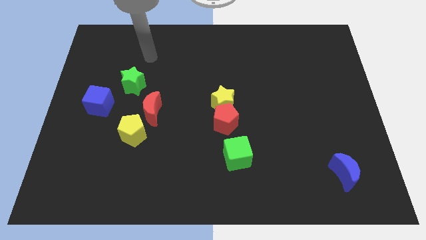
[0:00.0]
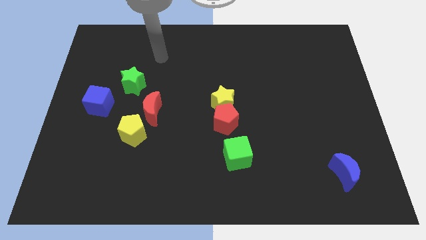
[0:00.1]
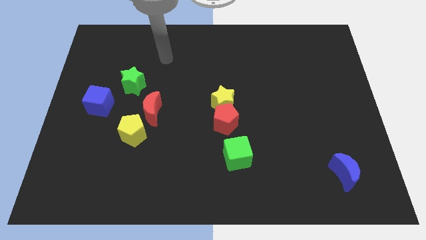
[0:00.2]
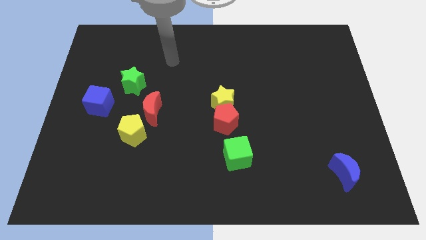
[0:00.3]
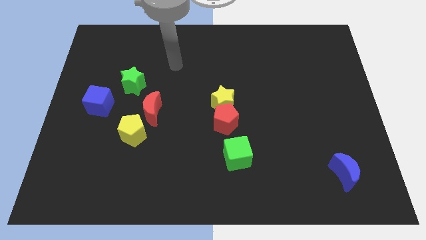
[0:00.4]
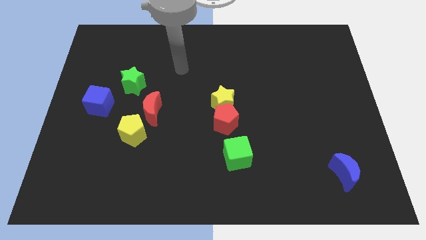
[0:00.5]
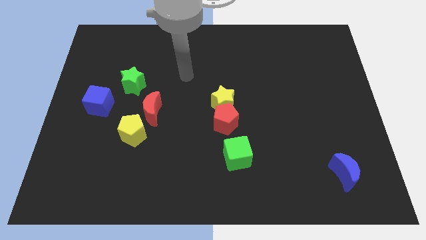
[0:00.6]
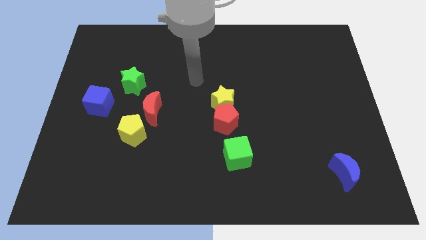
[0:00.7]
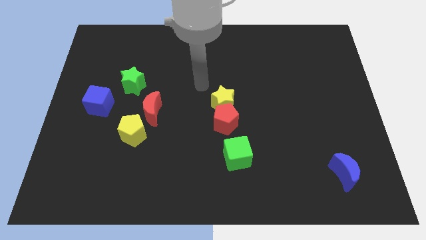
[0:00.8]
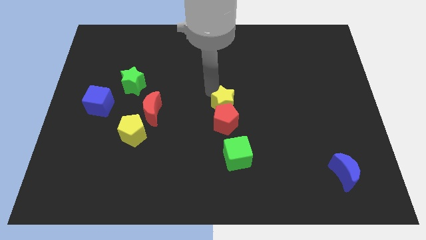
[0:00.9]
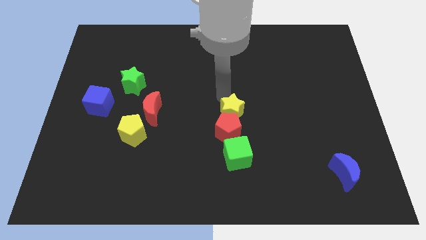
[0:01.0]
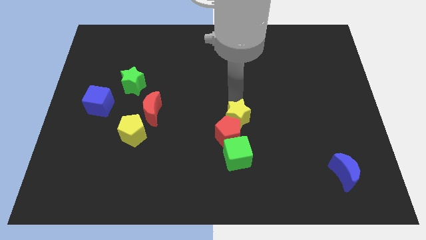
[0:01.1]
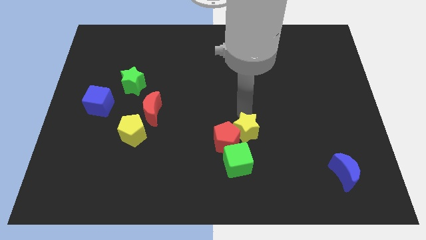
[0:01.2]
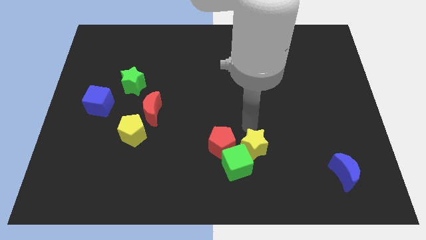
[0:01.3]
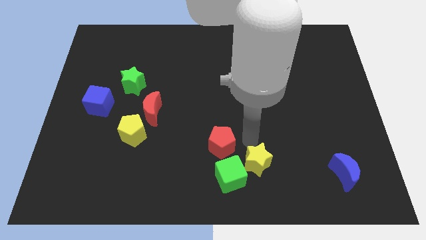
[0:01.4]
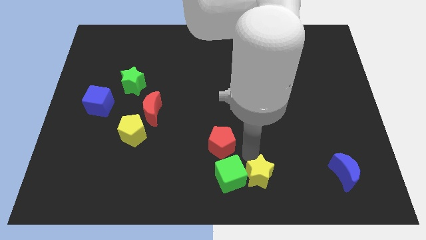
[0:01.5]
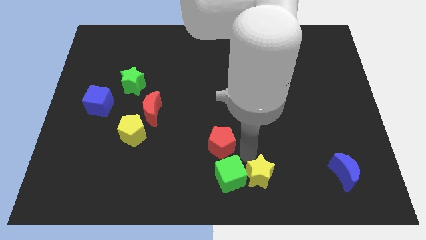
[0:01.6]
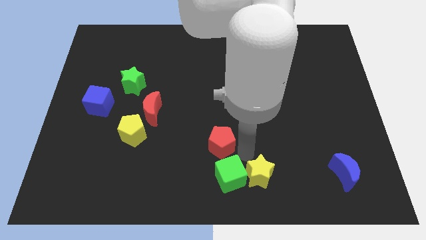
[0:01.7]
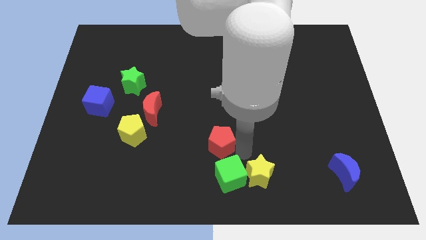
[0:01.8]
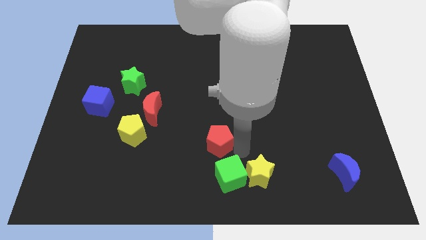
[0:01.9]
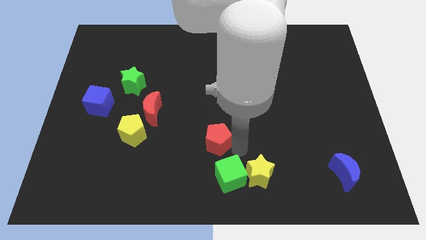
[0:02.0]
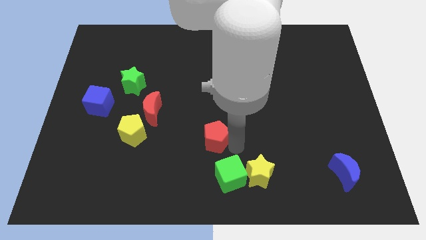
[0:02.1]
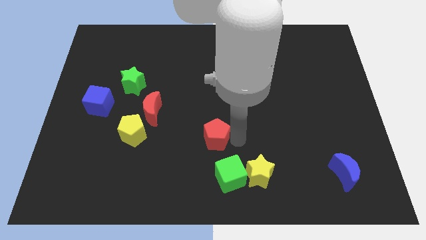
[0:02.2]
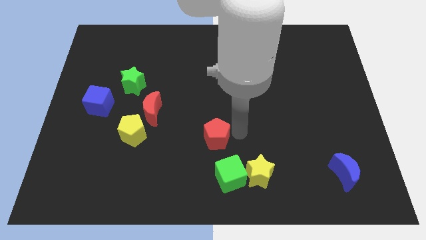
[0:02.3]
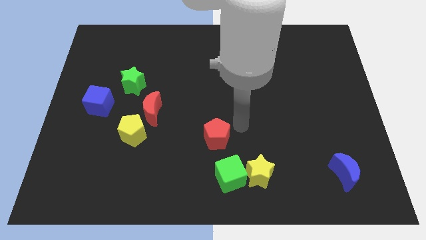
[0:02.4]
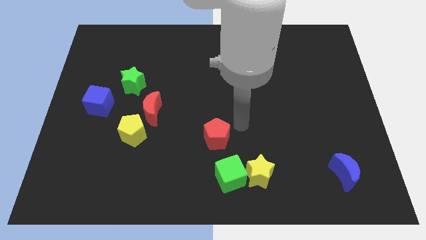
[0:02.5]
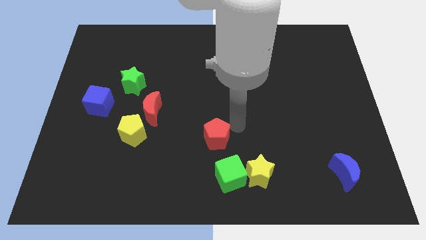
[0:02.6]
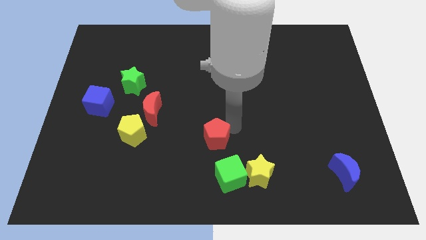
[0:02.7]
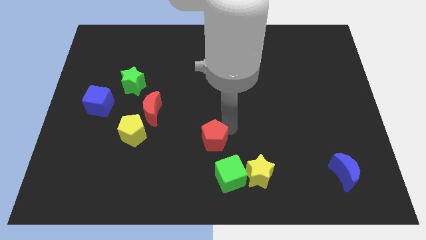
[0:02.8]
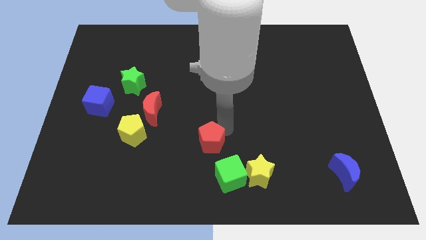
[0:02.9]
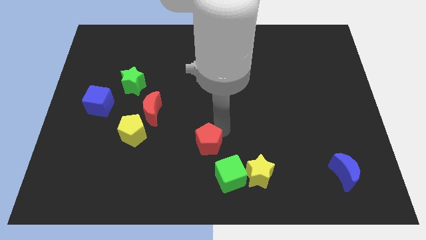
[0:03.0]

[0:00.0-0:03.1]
slightly push the red pentagon downwards and to the left diagonally

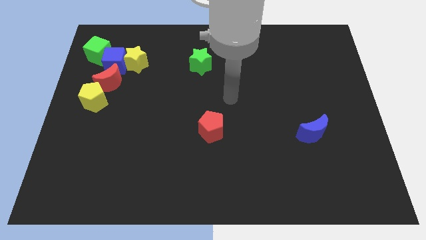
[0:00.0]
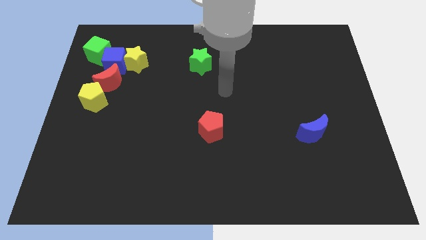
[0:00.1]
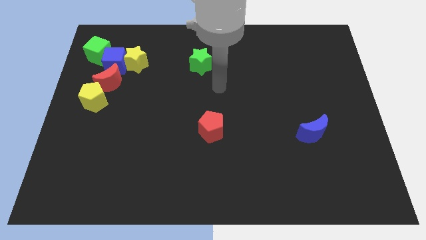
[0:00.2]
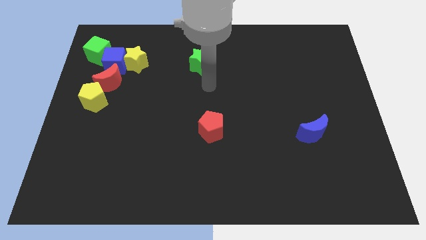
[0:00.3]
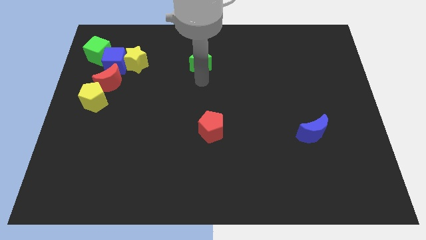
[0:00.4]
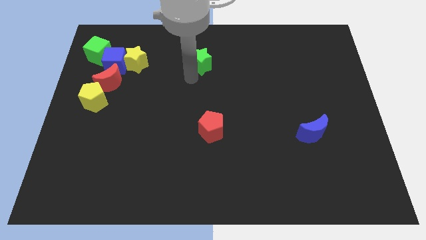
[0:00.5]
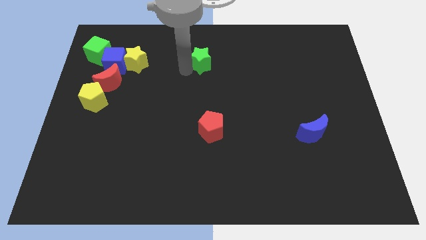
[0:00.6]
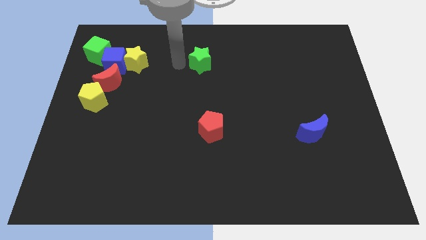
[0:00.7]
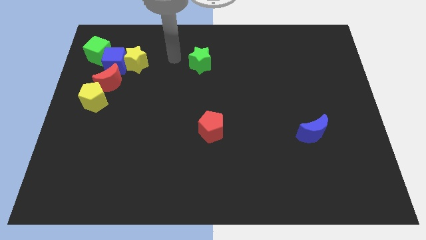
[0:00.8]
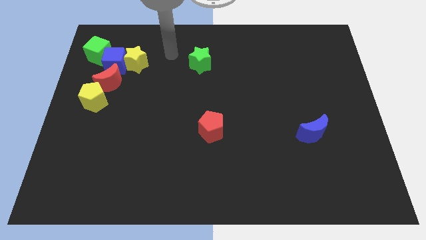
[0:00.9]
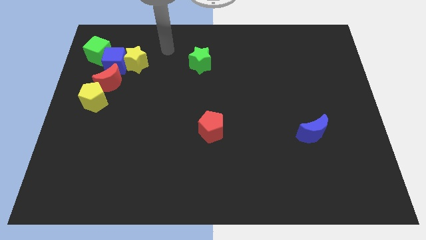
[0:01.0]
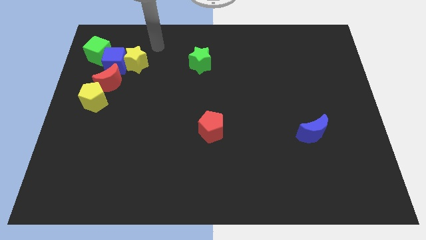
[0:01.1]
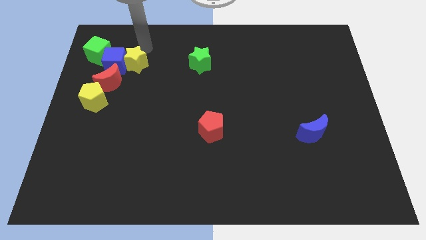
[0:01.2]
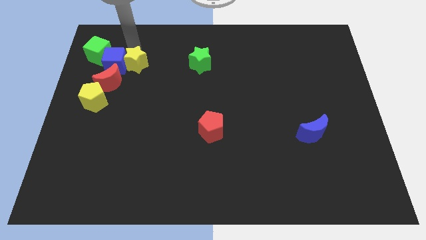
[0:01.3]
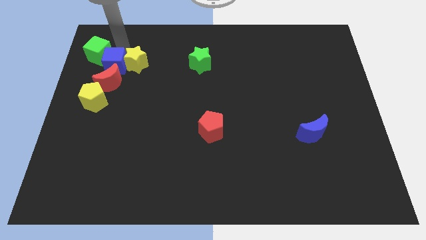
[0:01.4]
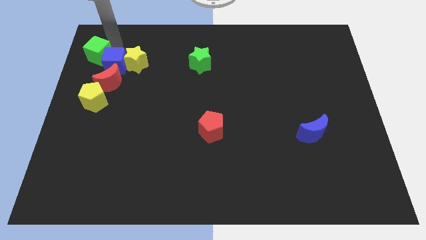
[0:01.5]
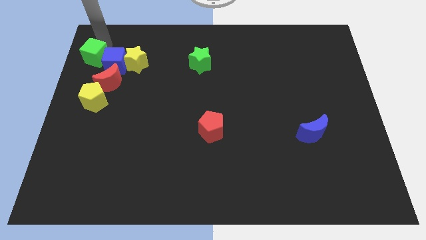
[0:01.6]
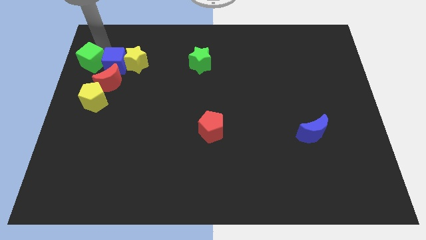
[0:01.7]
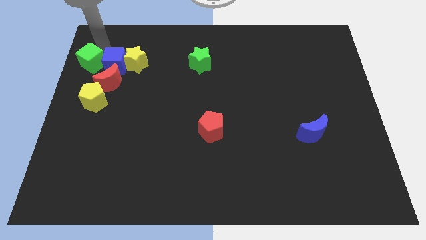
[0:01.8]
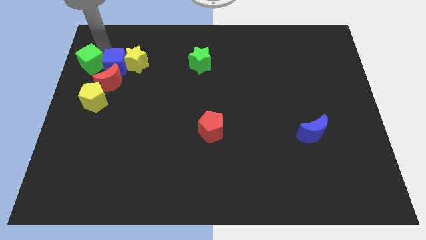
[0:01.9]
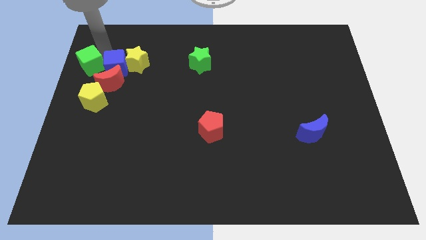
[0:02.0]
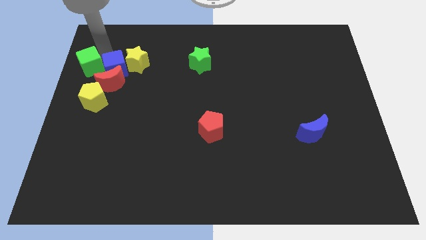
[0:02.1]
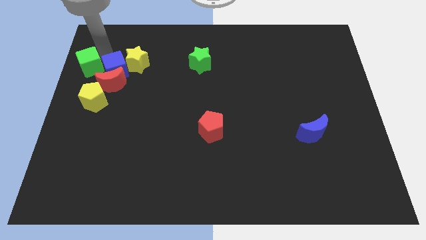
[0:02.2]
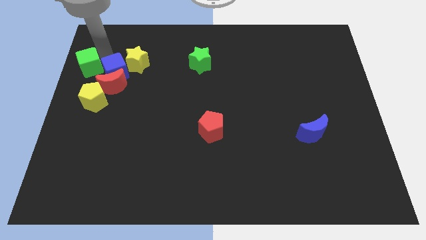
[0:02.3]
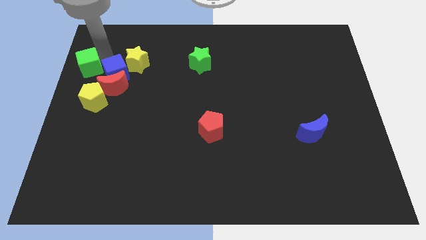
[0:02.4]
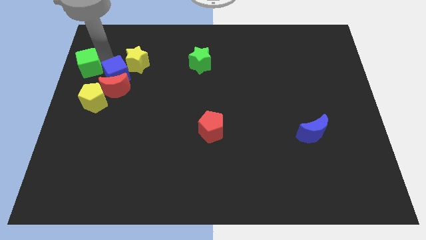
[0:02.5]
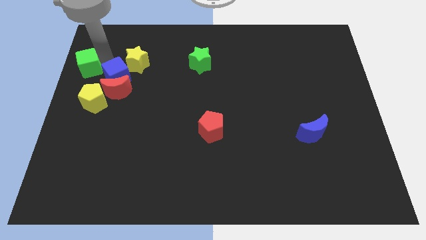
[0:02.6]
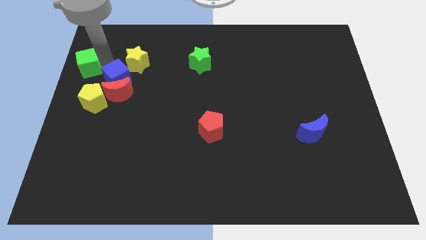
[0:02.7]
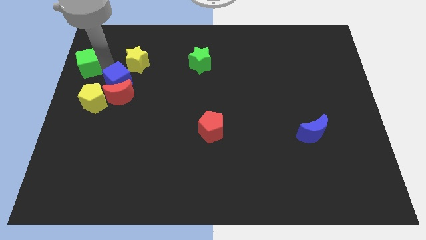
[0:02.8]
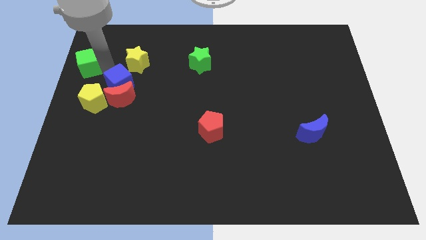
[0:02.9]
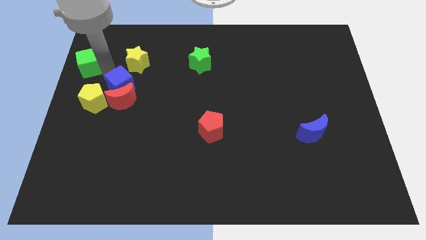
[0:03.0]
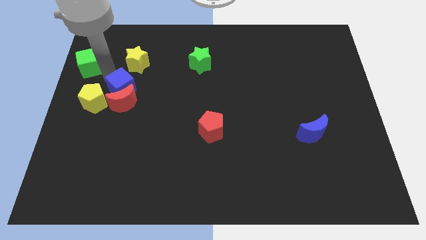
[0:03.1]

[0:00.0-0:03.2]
slightly push the blue cube down and then right

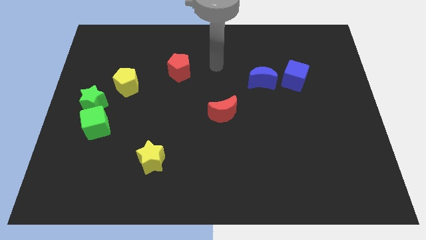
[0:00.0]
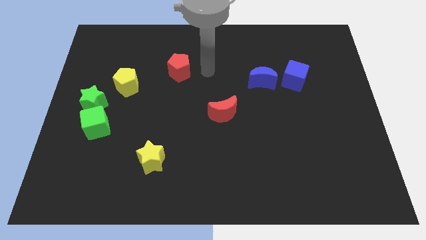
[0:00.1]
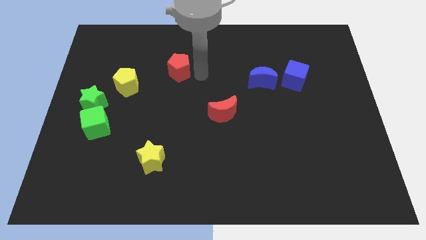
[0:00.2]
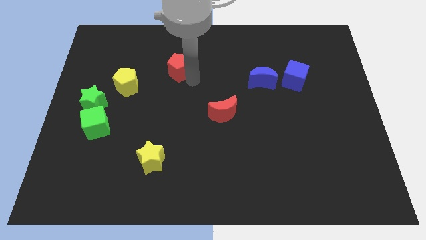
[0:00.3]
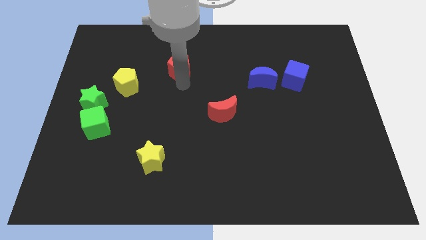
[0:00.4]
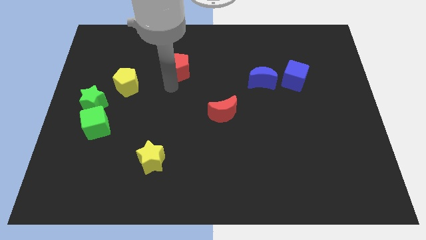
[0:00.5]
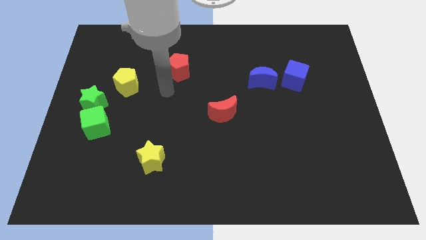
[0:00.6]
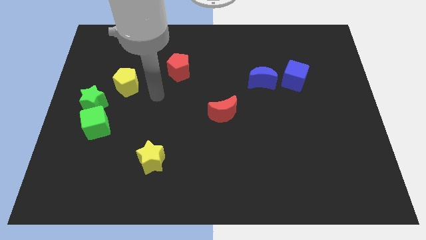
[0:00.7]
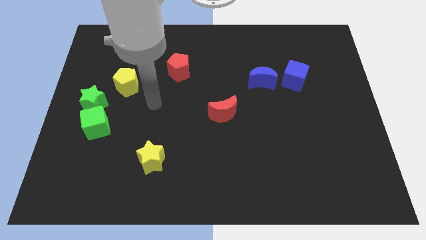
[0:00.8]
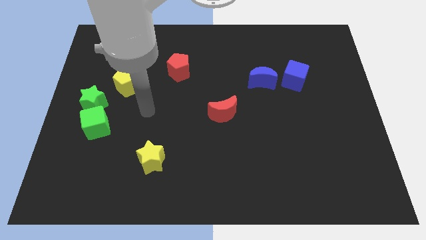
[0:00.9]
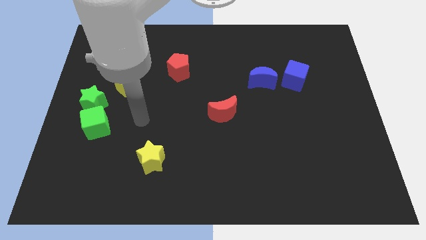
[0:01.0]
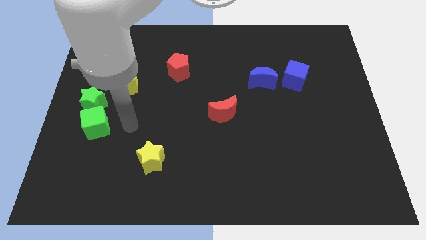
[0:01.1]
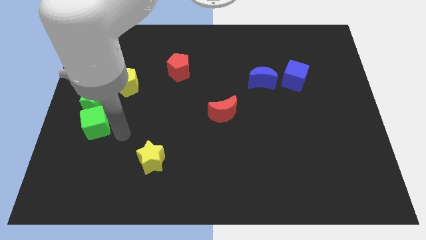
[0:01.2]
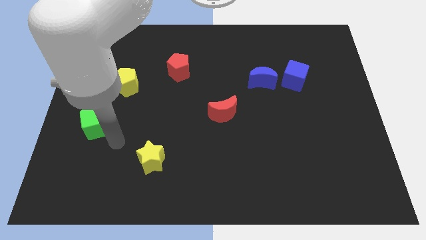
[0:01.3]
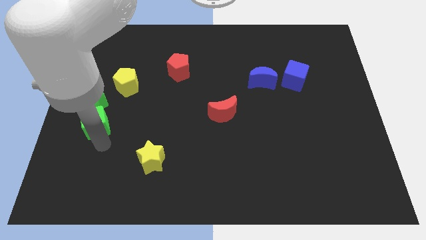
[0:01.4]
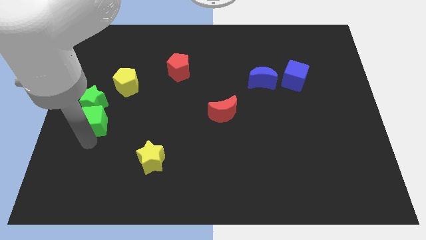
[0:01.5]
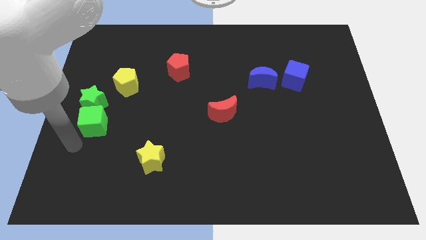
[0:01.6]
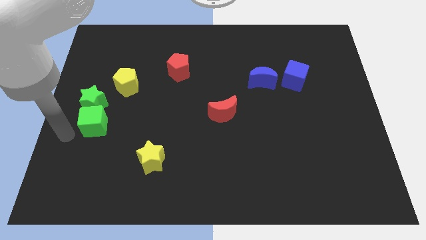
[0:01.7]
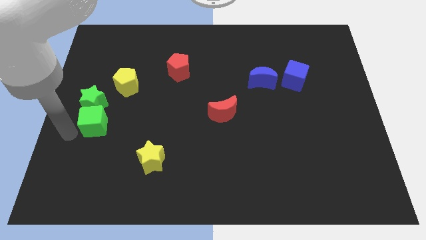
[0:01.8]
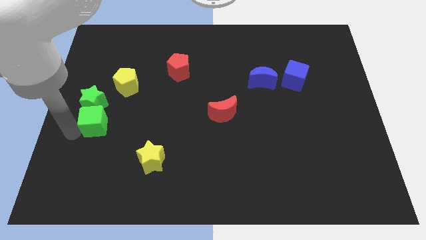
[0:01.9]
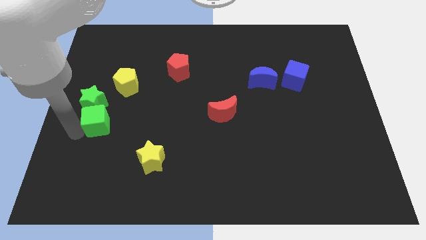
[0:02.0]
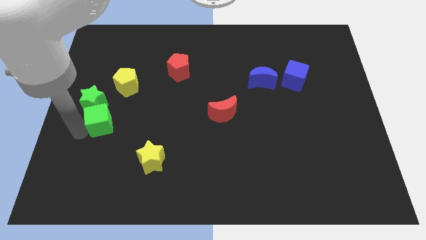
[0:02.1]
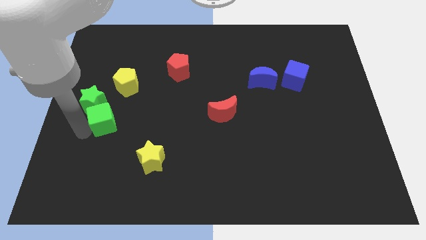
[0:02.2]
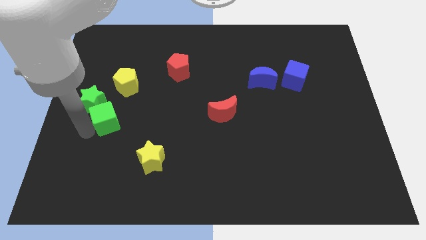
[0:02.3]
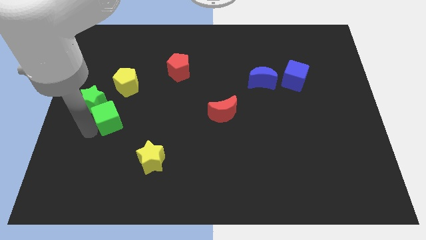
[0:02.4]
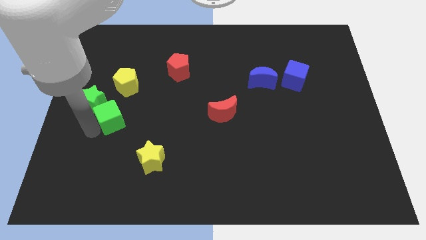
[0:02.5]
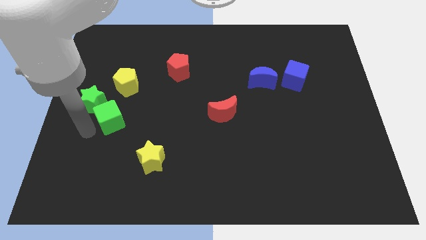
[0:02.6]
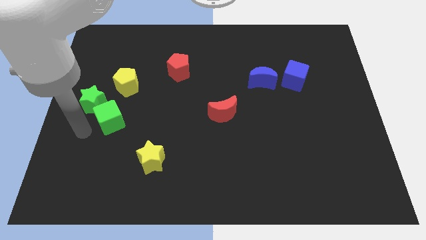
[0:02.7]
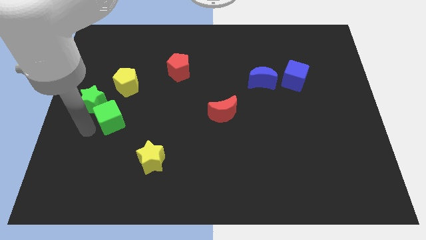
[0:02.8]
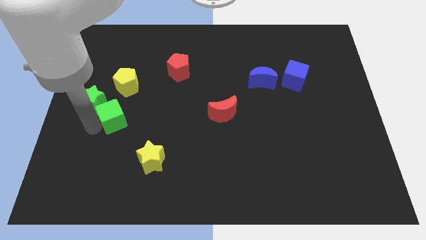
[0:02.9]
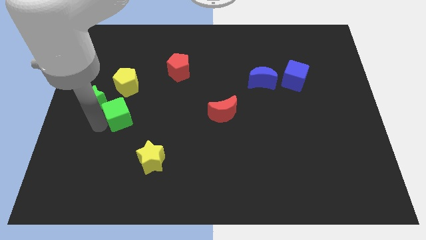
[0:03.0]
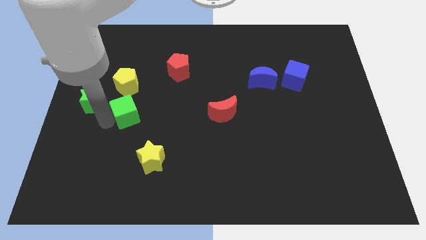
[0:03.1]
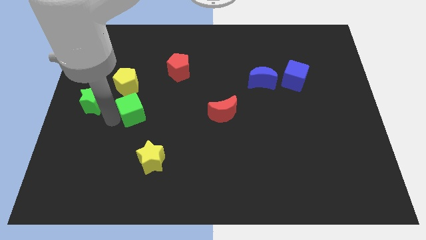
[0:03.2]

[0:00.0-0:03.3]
slide the green cube upwards and right diagonally slightly
